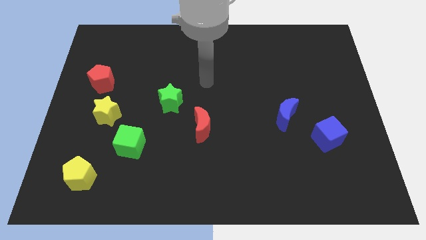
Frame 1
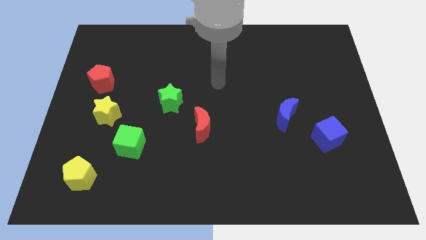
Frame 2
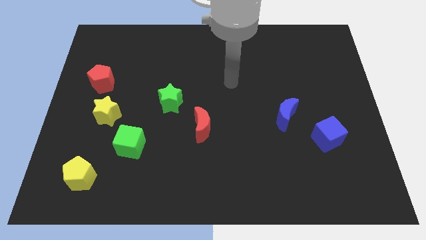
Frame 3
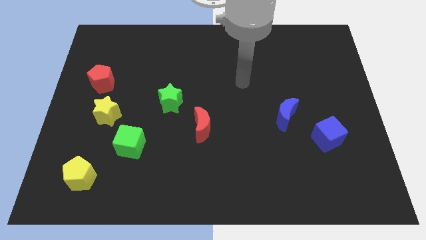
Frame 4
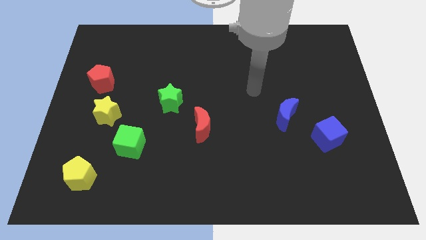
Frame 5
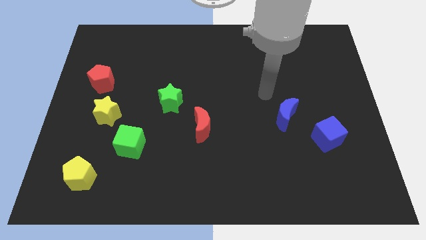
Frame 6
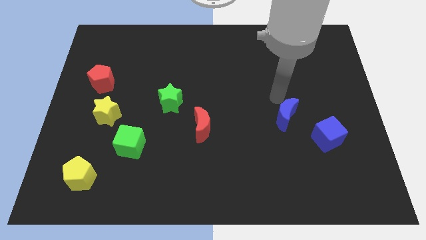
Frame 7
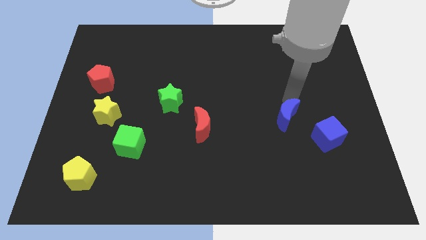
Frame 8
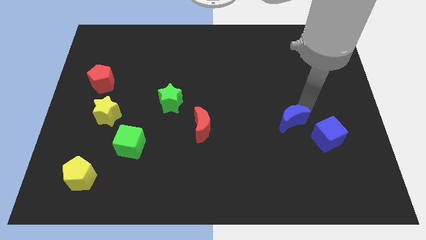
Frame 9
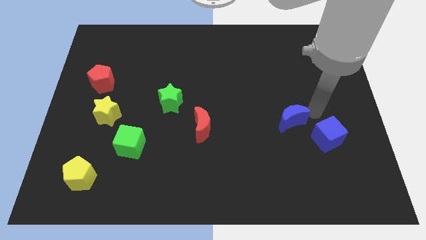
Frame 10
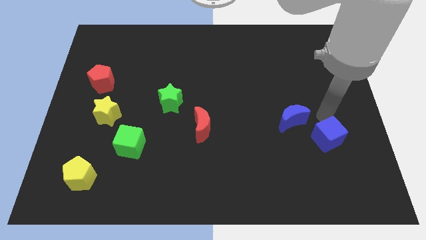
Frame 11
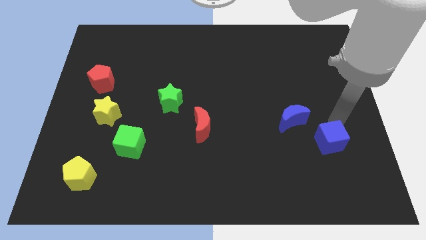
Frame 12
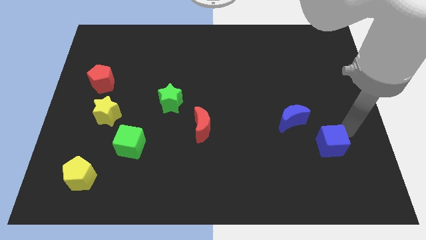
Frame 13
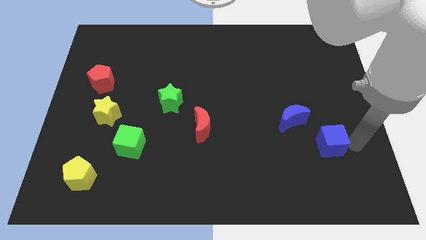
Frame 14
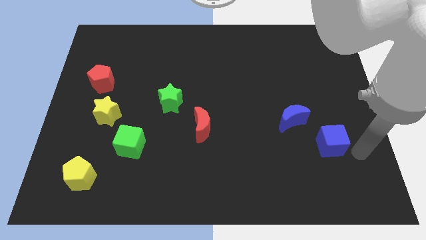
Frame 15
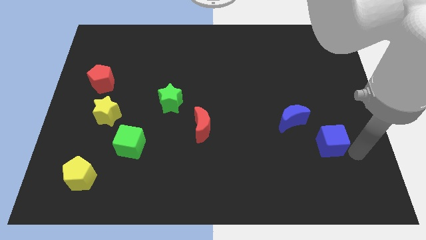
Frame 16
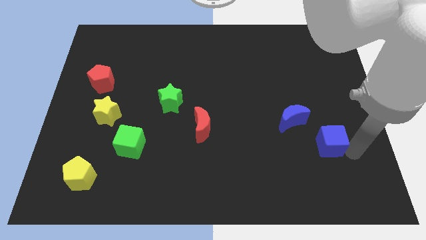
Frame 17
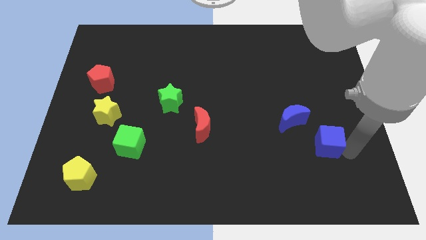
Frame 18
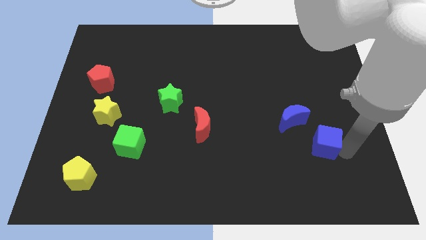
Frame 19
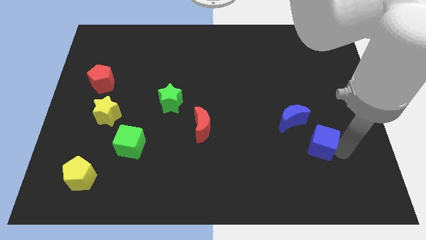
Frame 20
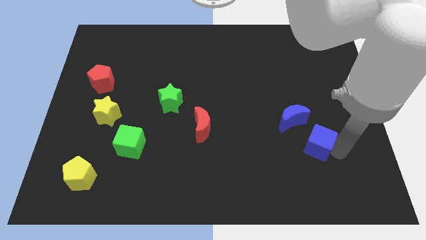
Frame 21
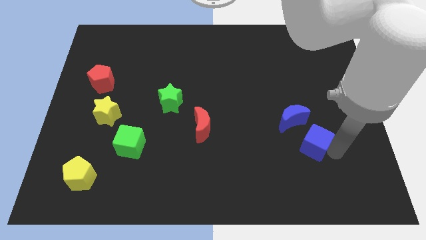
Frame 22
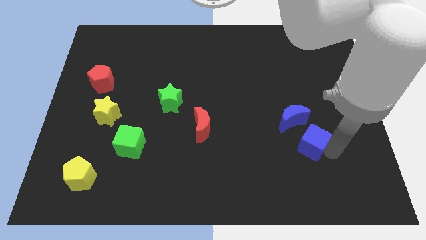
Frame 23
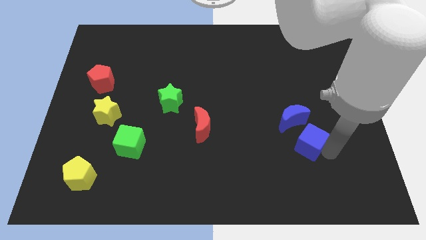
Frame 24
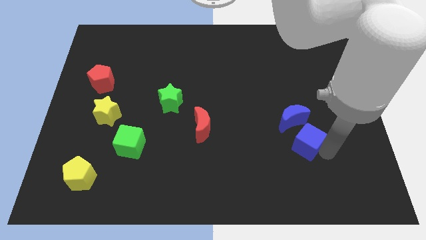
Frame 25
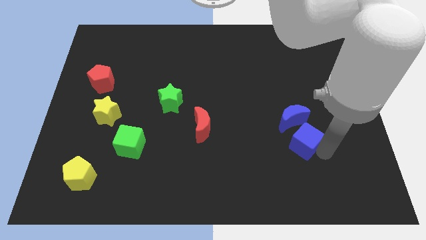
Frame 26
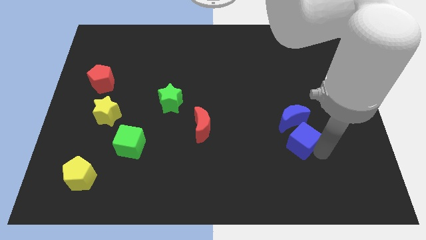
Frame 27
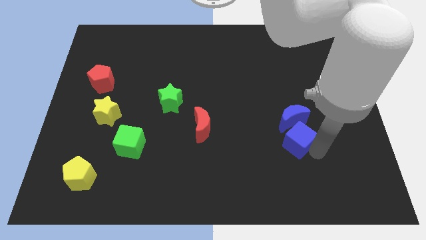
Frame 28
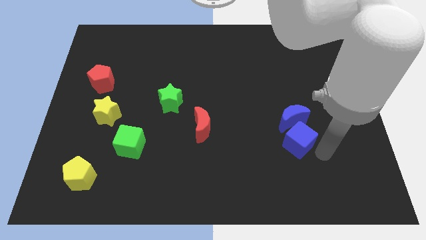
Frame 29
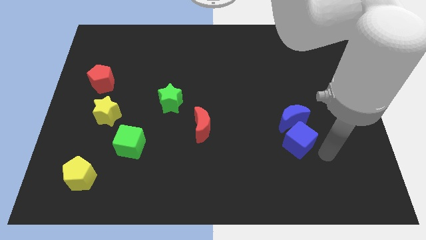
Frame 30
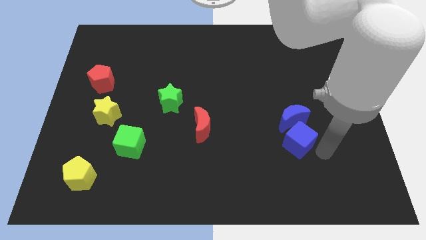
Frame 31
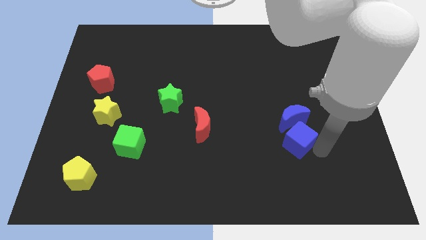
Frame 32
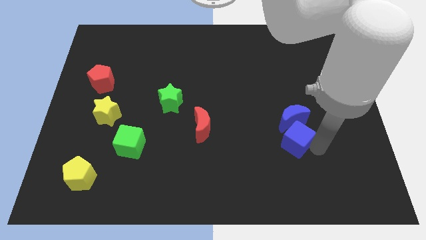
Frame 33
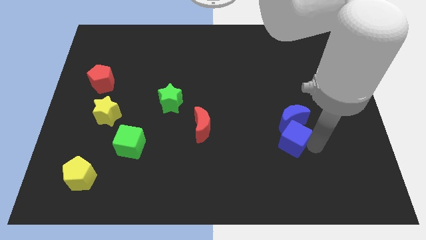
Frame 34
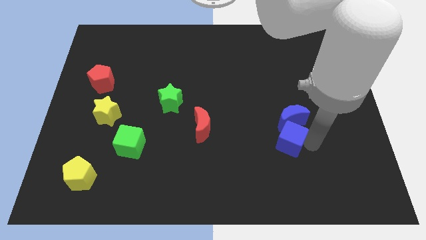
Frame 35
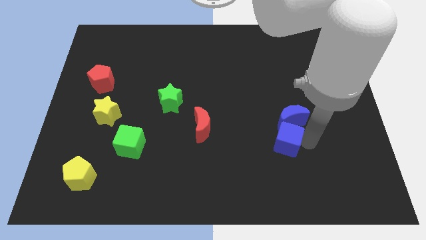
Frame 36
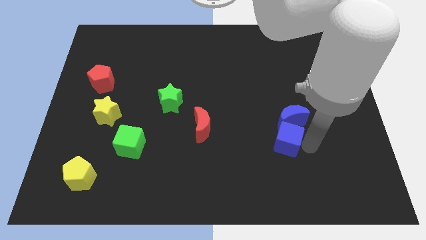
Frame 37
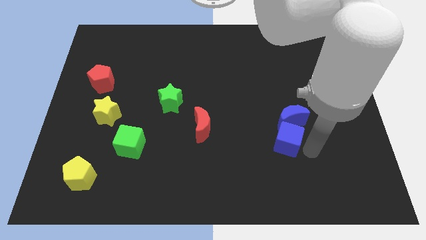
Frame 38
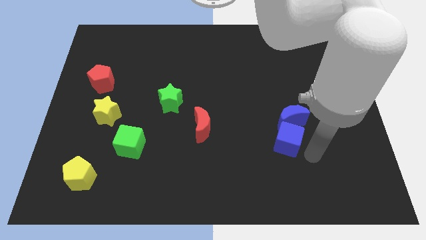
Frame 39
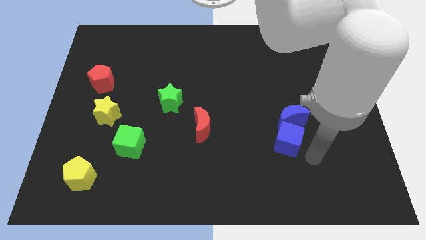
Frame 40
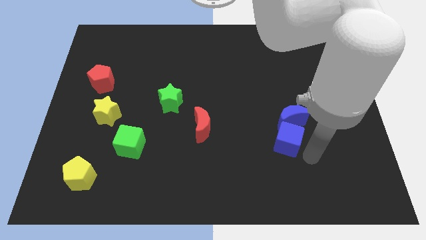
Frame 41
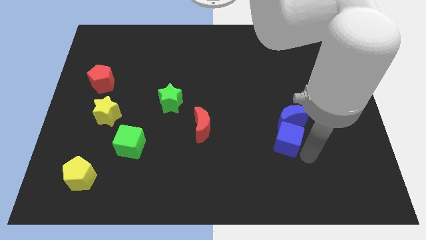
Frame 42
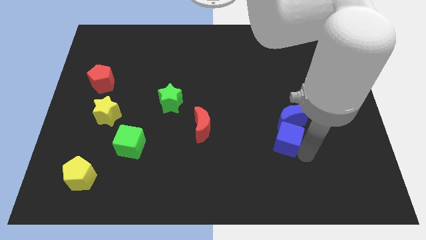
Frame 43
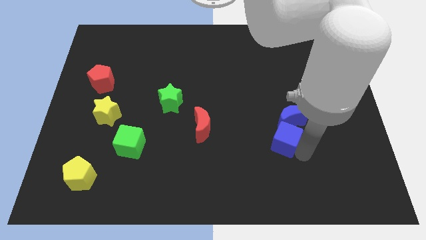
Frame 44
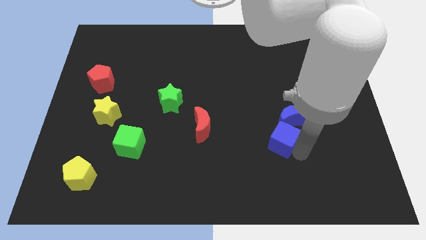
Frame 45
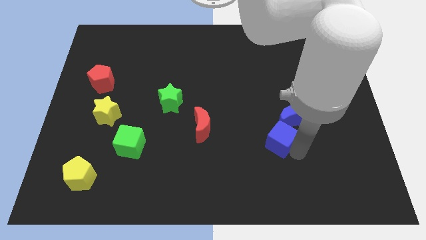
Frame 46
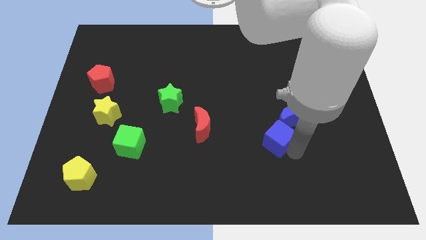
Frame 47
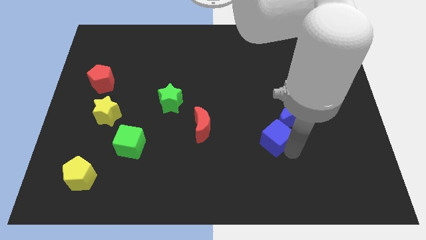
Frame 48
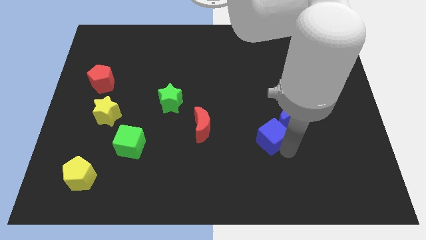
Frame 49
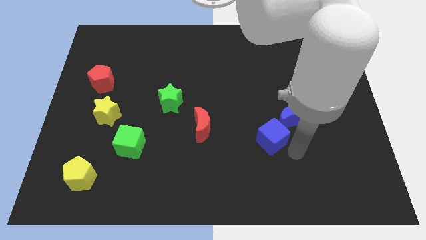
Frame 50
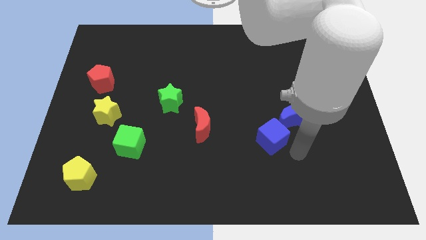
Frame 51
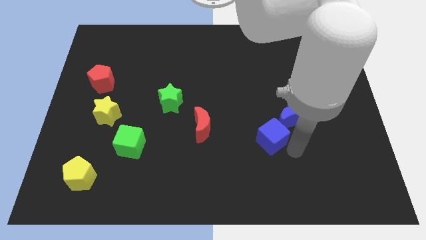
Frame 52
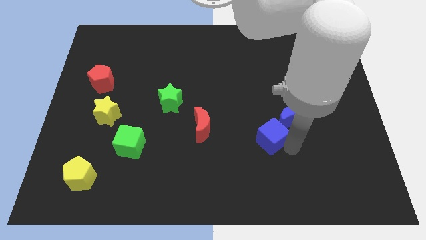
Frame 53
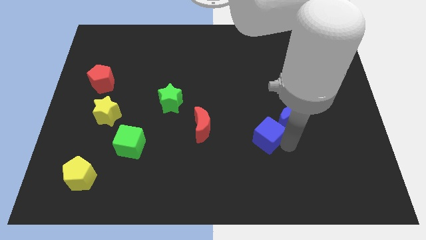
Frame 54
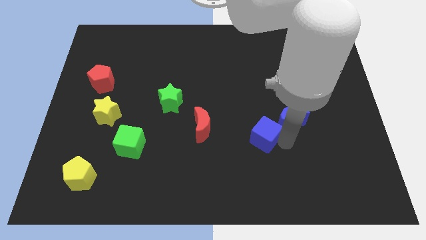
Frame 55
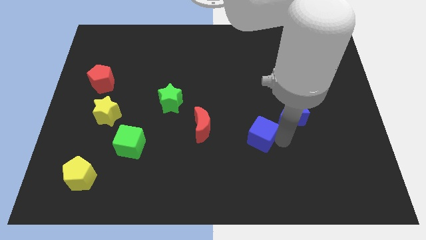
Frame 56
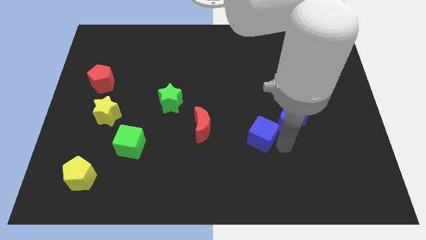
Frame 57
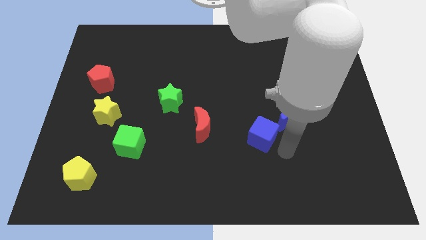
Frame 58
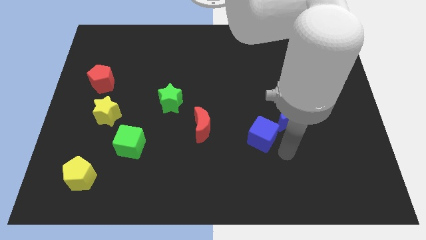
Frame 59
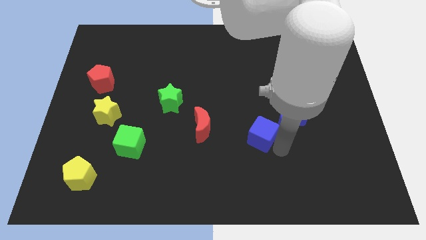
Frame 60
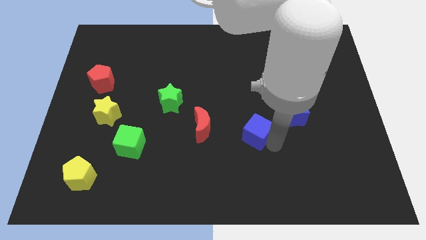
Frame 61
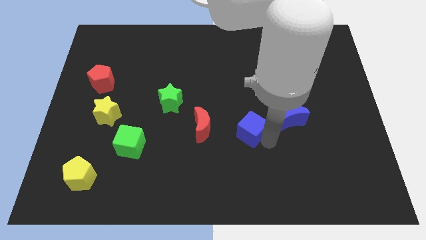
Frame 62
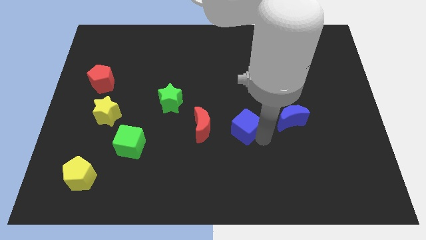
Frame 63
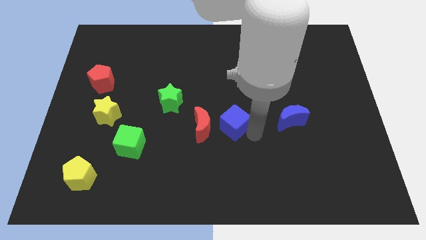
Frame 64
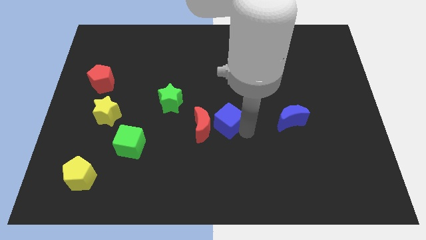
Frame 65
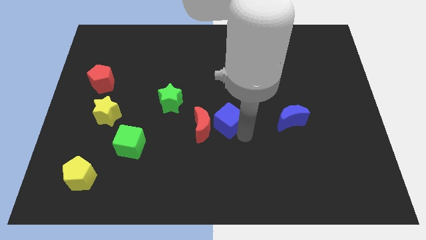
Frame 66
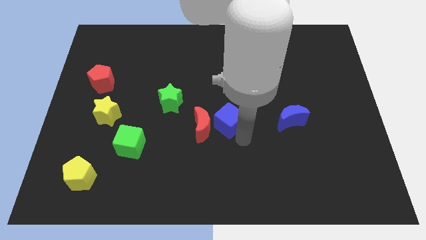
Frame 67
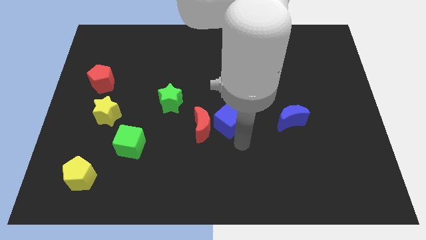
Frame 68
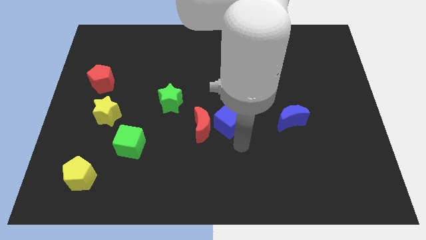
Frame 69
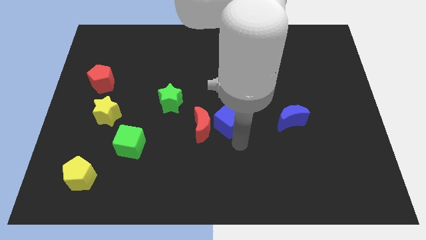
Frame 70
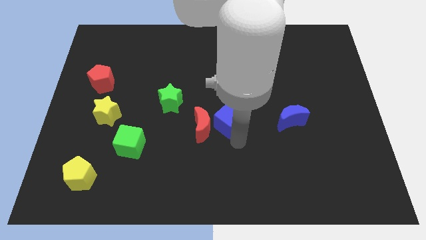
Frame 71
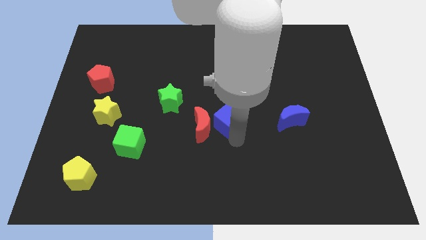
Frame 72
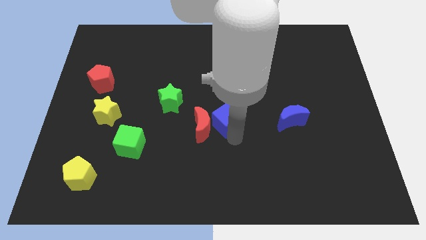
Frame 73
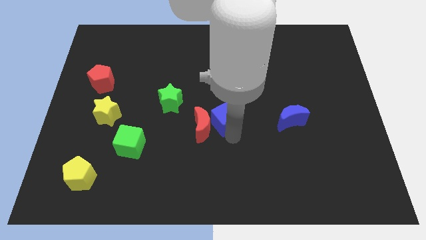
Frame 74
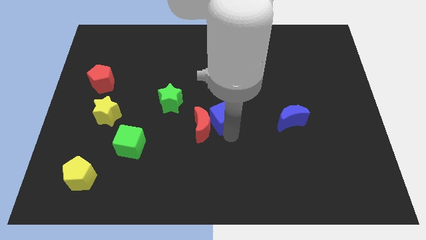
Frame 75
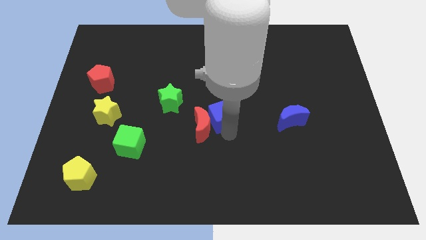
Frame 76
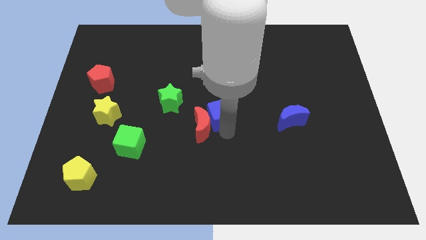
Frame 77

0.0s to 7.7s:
put the blue cube to the top side of the red moon
